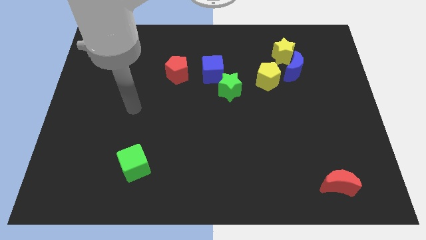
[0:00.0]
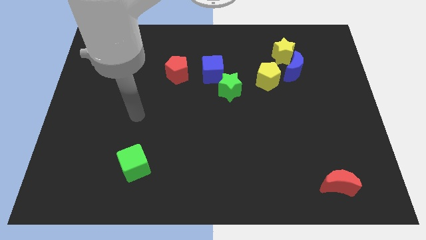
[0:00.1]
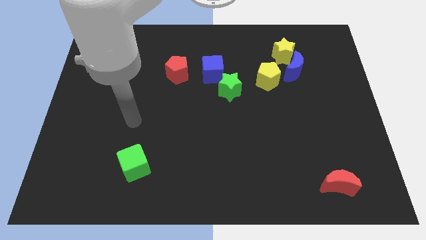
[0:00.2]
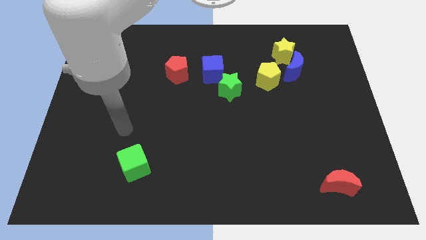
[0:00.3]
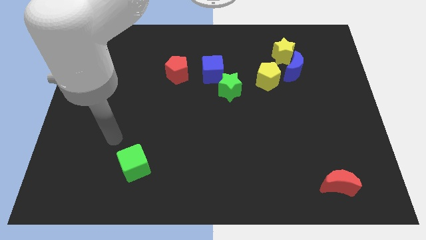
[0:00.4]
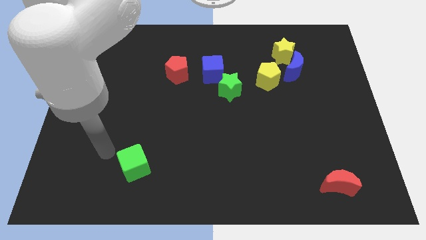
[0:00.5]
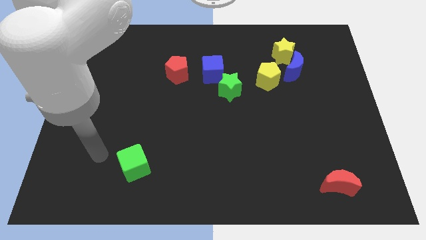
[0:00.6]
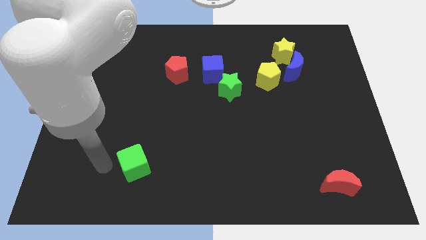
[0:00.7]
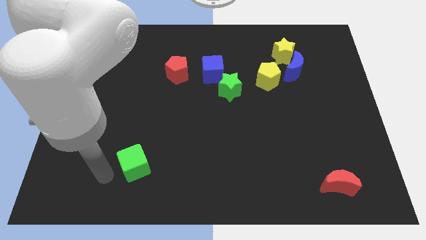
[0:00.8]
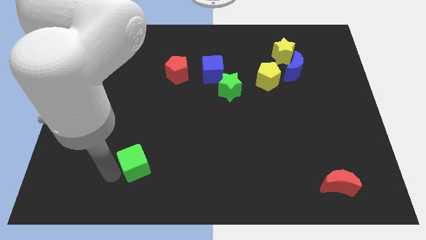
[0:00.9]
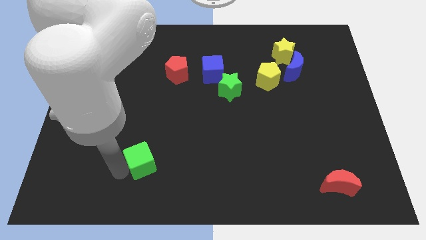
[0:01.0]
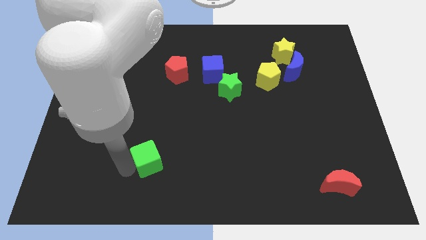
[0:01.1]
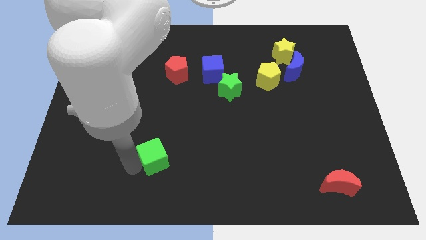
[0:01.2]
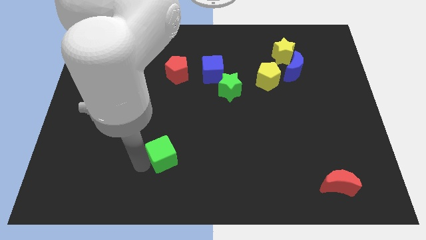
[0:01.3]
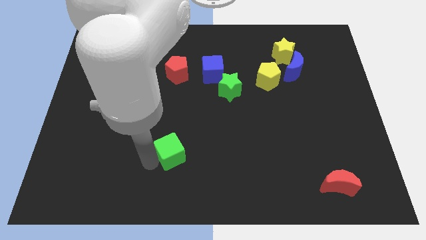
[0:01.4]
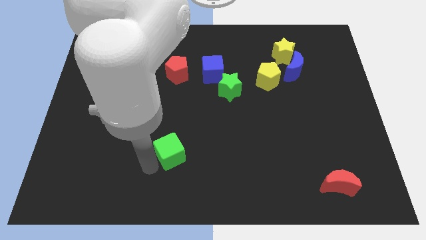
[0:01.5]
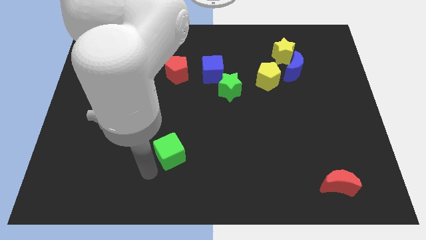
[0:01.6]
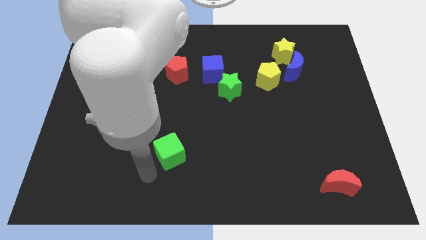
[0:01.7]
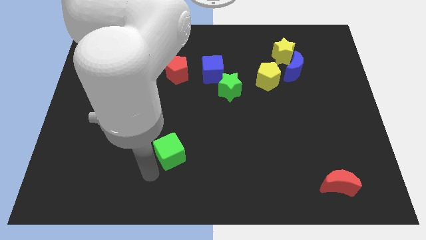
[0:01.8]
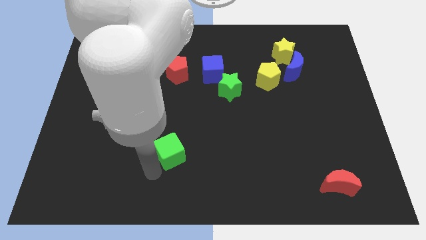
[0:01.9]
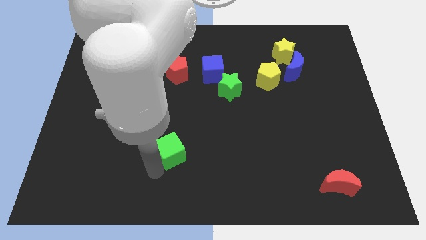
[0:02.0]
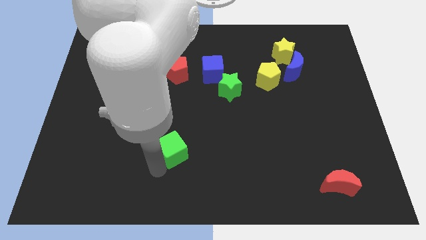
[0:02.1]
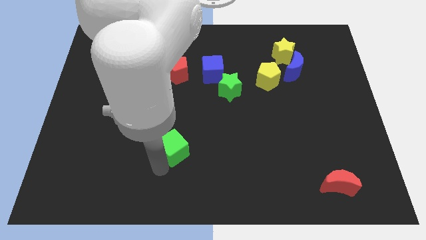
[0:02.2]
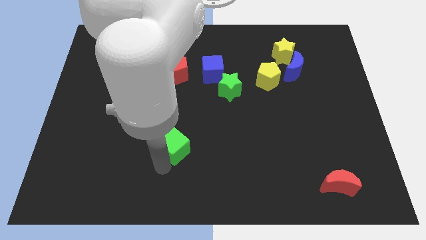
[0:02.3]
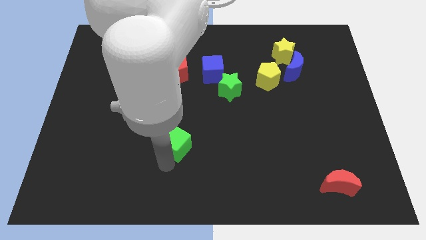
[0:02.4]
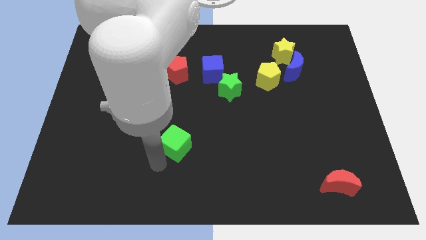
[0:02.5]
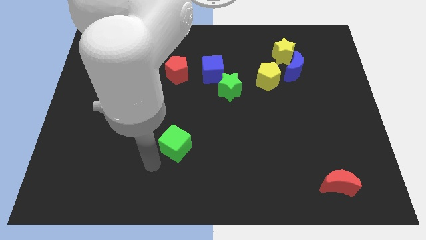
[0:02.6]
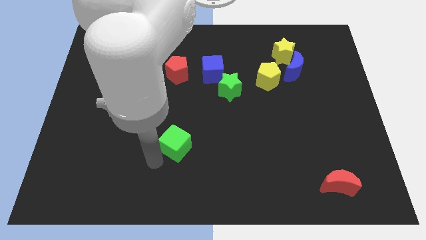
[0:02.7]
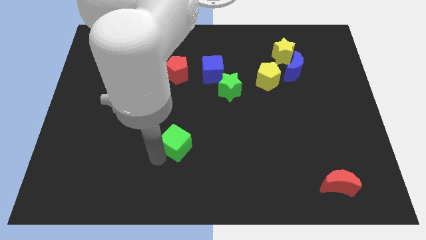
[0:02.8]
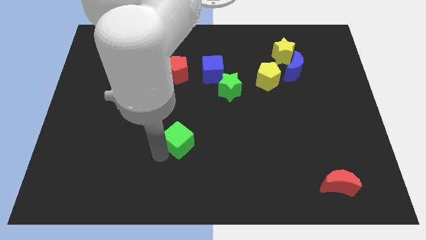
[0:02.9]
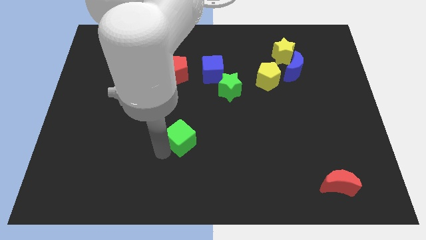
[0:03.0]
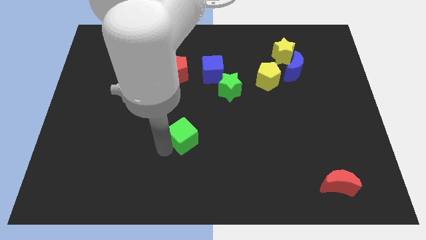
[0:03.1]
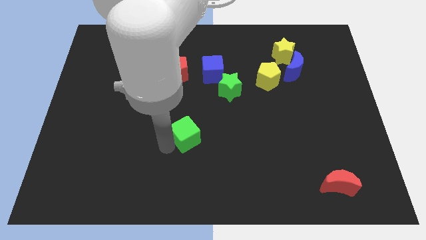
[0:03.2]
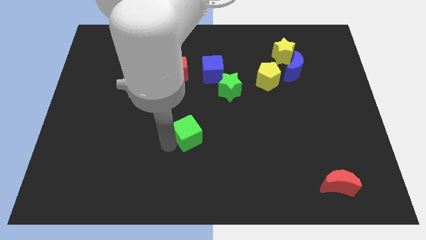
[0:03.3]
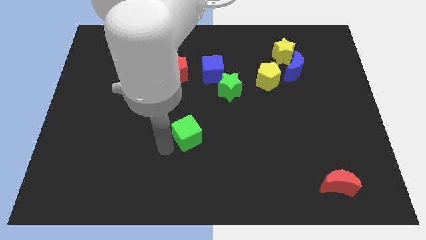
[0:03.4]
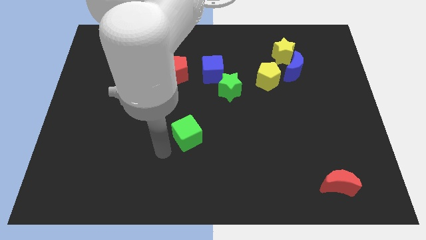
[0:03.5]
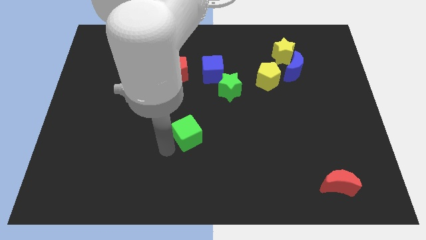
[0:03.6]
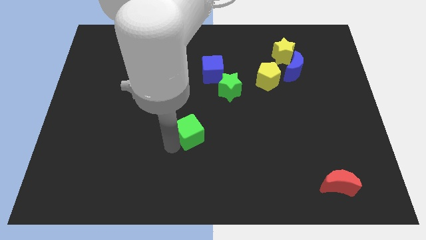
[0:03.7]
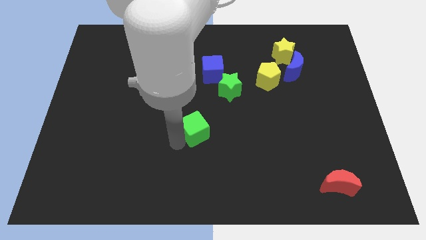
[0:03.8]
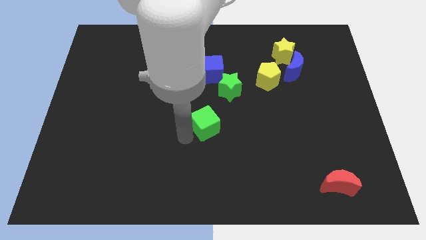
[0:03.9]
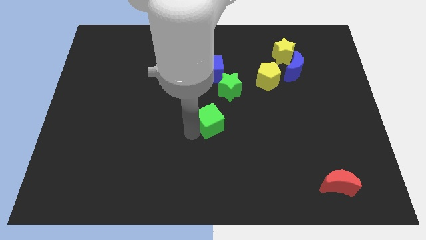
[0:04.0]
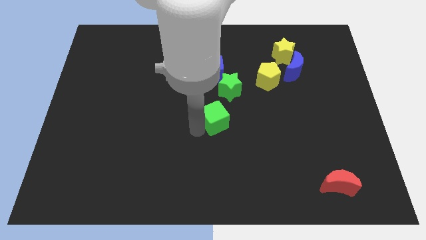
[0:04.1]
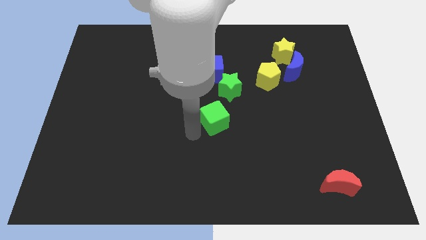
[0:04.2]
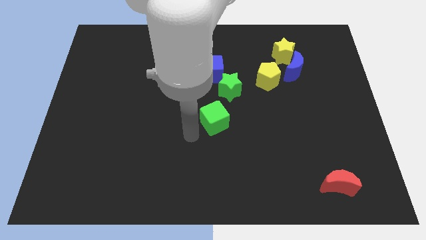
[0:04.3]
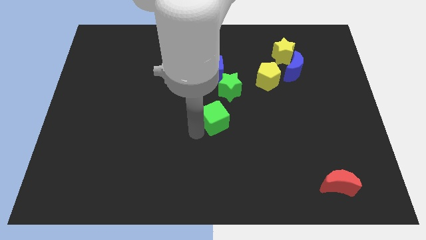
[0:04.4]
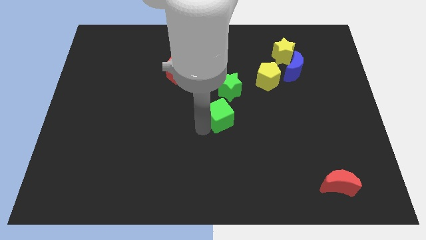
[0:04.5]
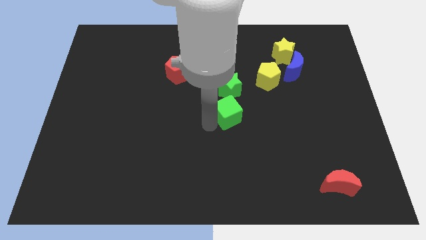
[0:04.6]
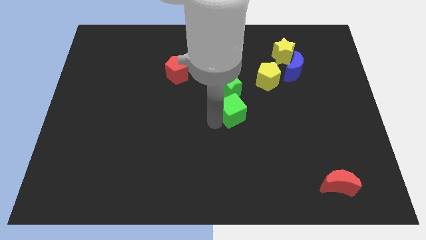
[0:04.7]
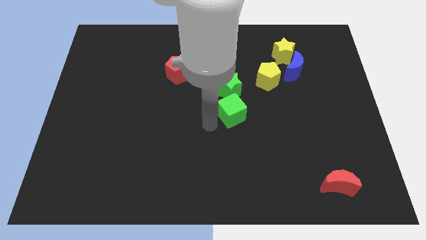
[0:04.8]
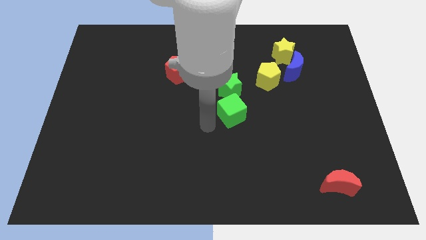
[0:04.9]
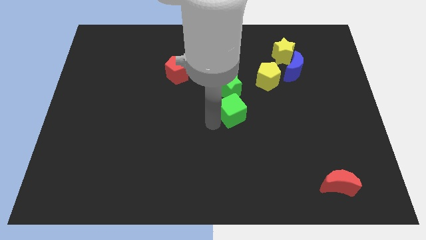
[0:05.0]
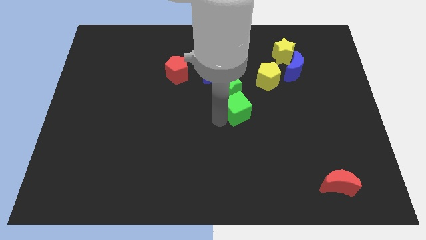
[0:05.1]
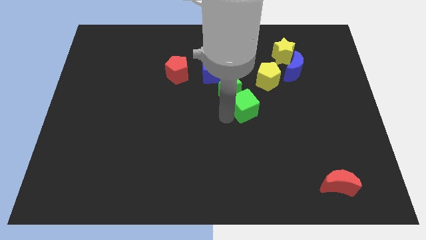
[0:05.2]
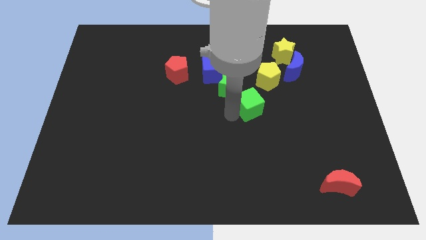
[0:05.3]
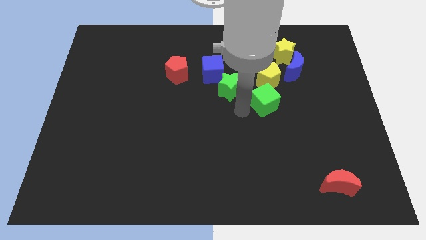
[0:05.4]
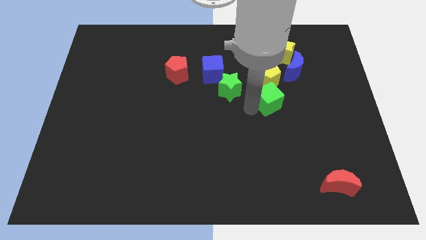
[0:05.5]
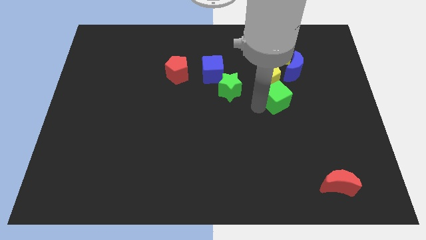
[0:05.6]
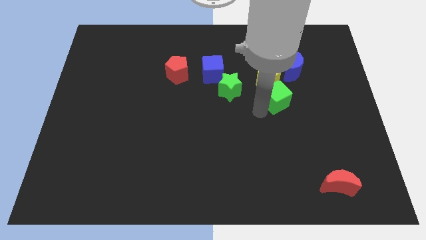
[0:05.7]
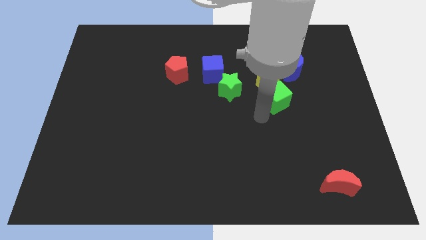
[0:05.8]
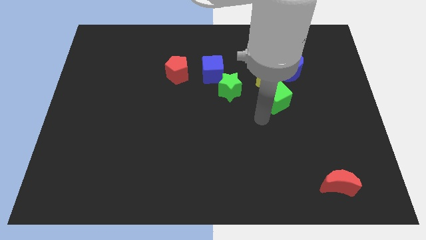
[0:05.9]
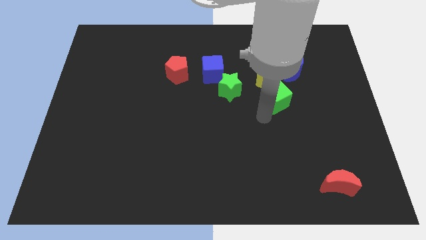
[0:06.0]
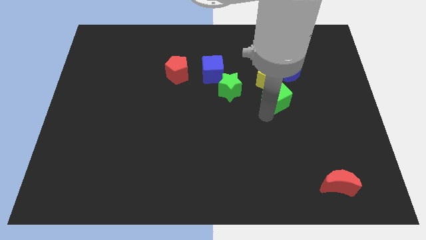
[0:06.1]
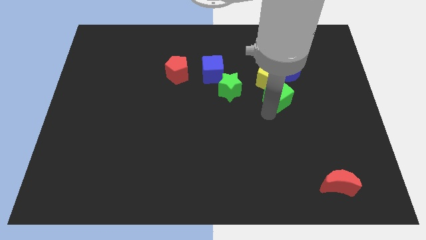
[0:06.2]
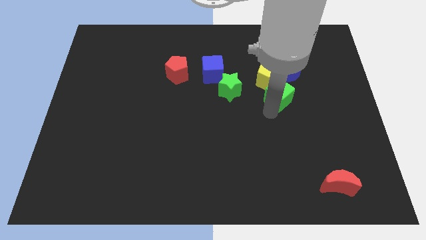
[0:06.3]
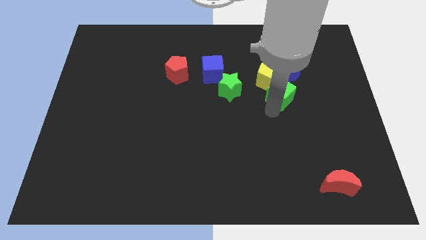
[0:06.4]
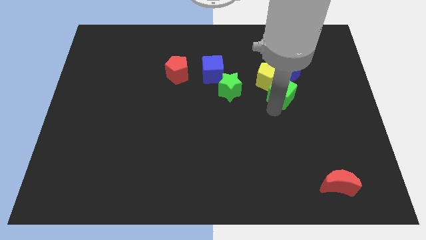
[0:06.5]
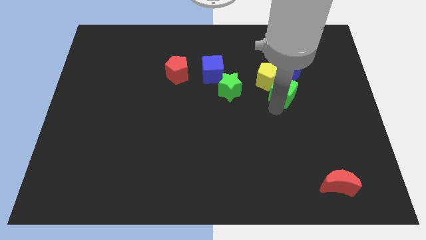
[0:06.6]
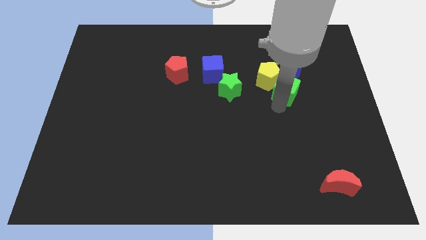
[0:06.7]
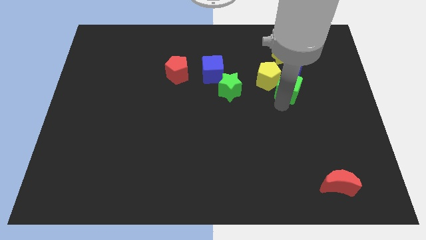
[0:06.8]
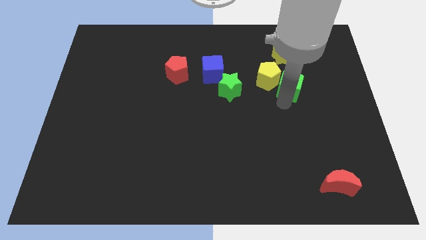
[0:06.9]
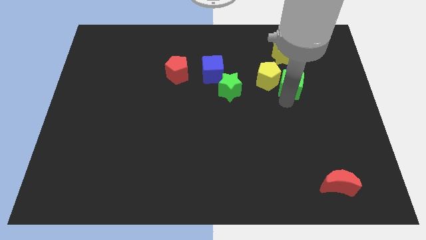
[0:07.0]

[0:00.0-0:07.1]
put the green cube to the blue moon
